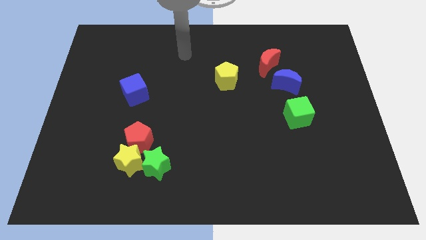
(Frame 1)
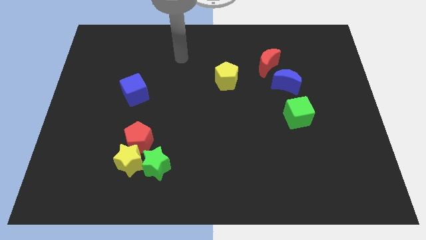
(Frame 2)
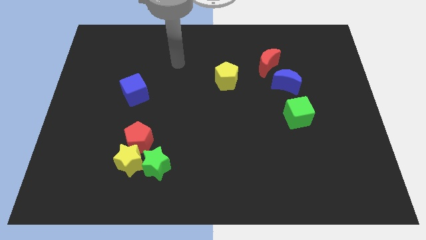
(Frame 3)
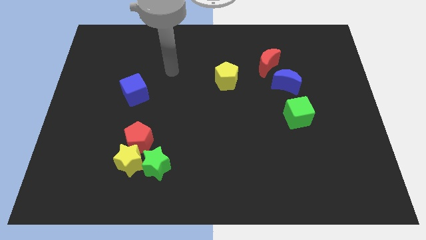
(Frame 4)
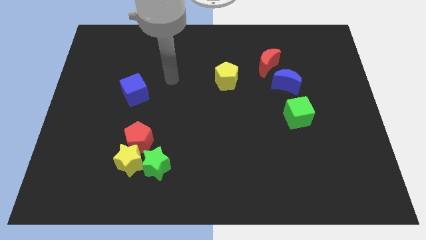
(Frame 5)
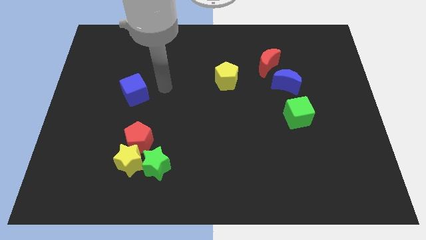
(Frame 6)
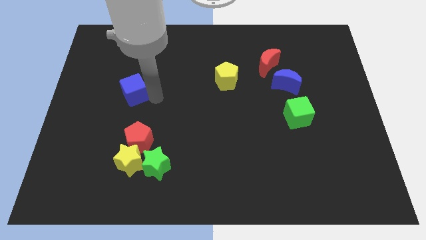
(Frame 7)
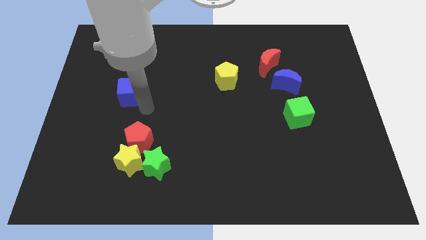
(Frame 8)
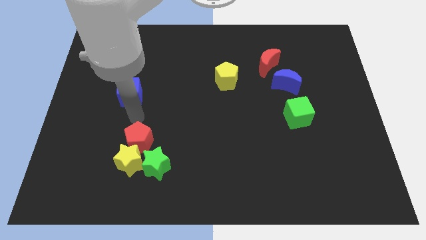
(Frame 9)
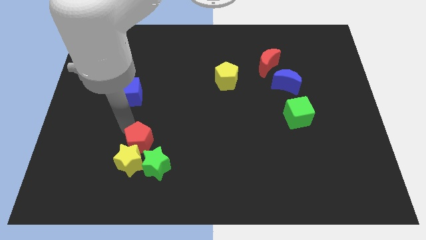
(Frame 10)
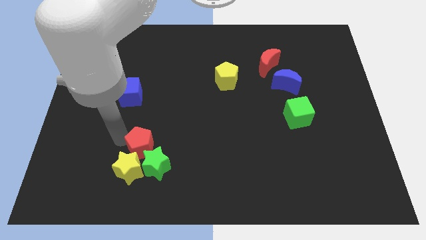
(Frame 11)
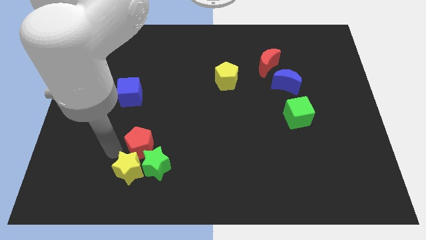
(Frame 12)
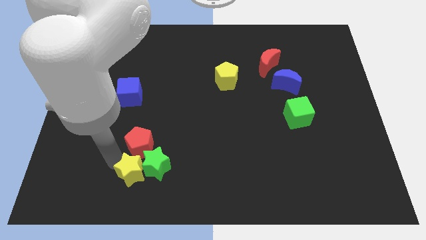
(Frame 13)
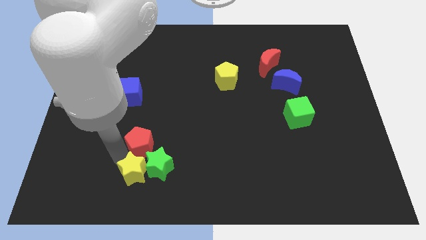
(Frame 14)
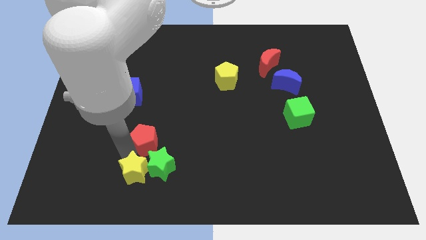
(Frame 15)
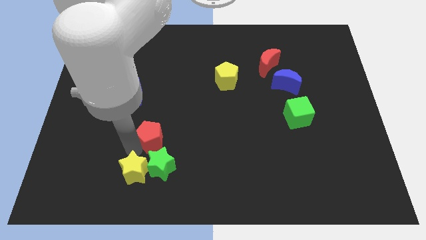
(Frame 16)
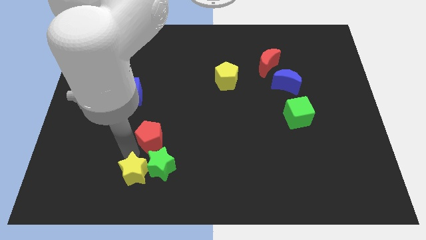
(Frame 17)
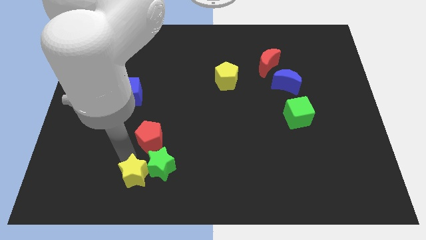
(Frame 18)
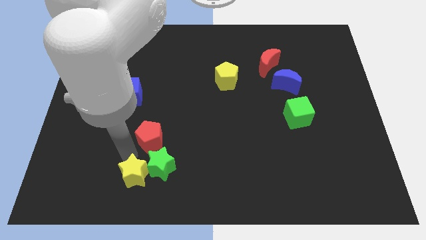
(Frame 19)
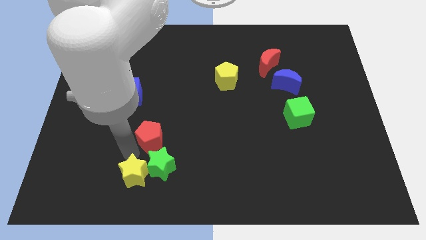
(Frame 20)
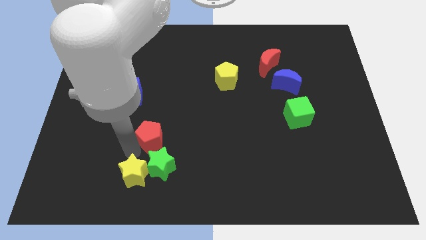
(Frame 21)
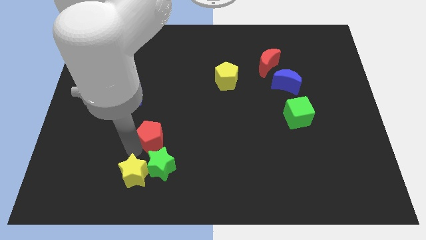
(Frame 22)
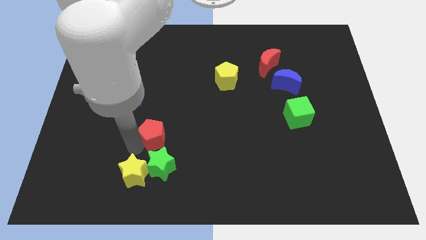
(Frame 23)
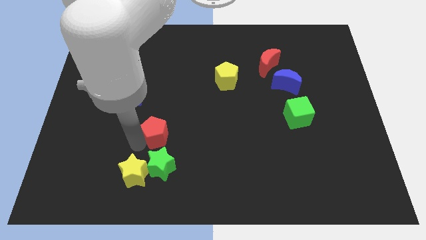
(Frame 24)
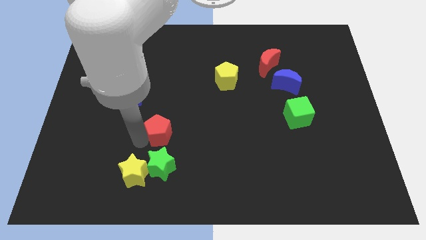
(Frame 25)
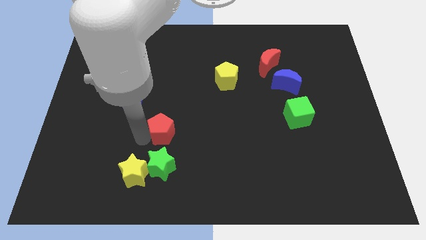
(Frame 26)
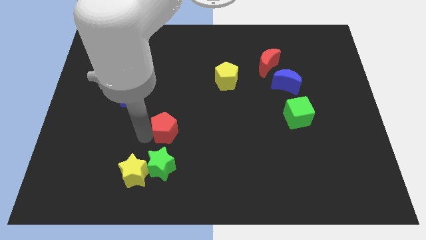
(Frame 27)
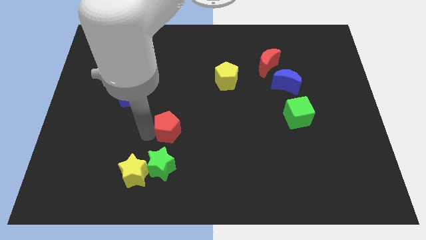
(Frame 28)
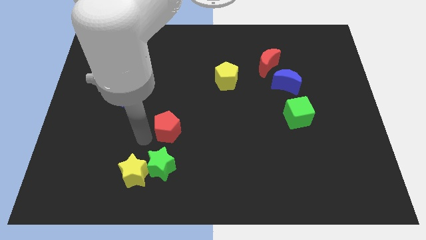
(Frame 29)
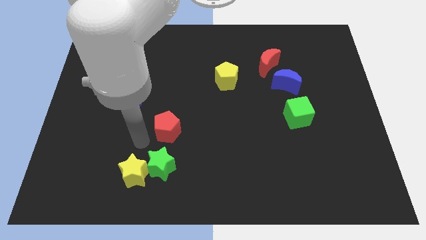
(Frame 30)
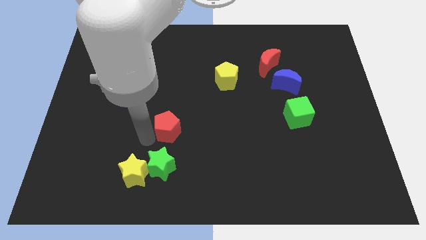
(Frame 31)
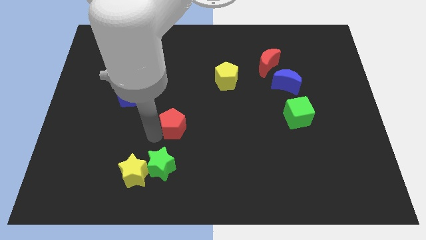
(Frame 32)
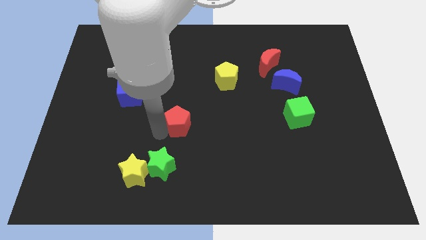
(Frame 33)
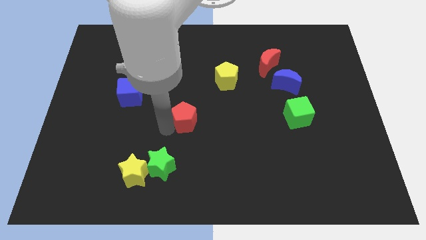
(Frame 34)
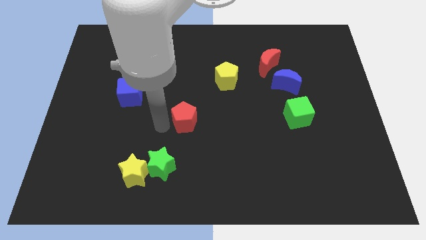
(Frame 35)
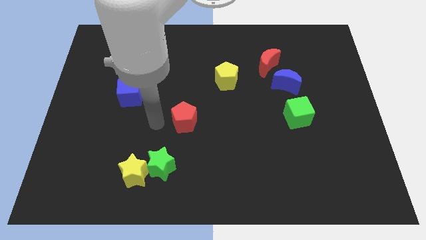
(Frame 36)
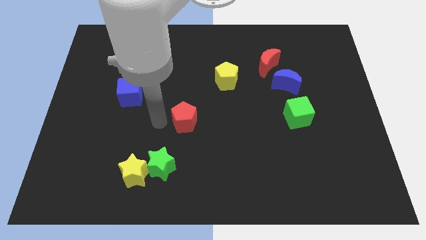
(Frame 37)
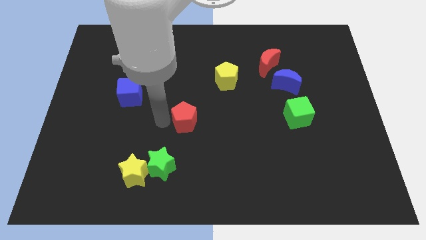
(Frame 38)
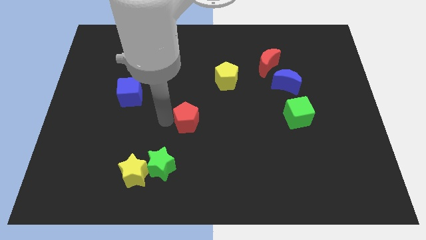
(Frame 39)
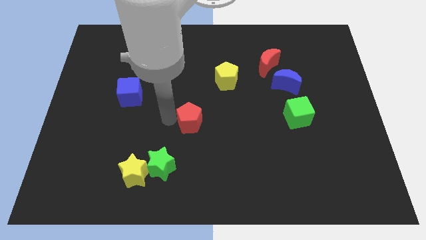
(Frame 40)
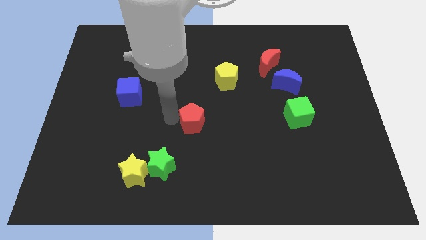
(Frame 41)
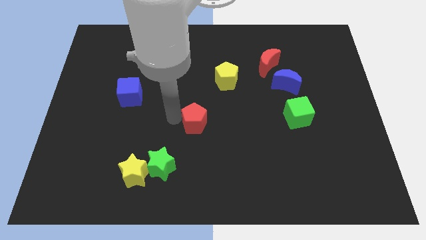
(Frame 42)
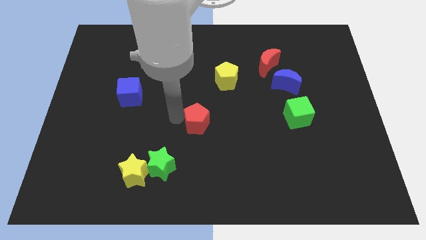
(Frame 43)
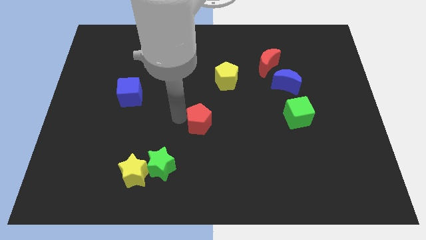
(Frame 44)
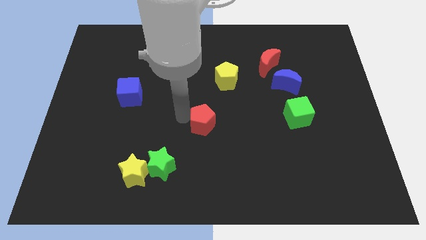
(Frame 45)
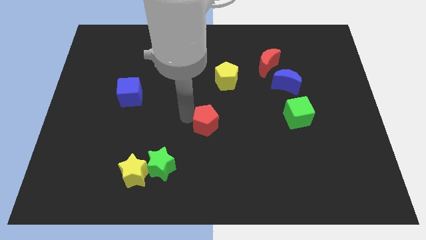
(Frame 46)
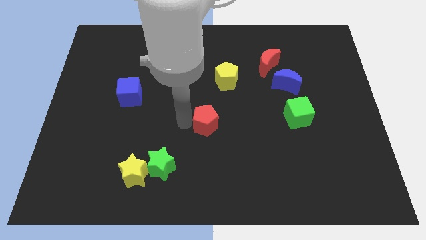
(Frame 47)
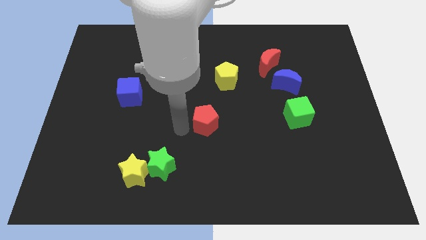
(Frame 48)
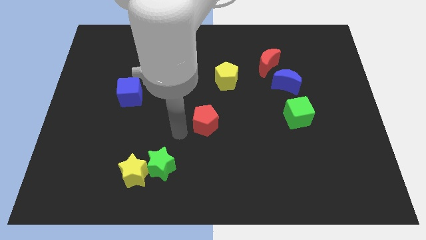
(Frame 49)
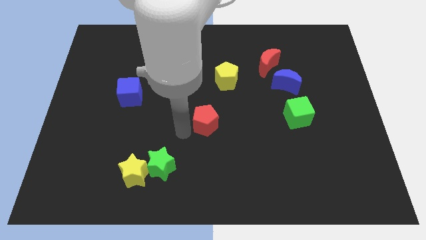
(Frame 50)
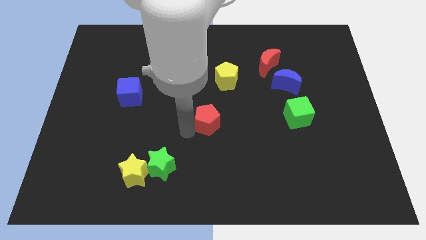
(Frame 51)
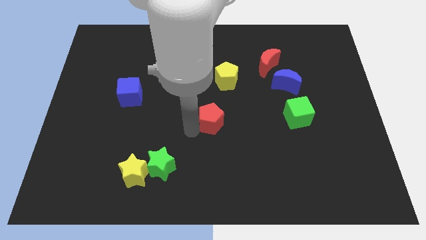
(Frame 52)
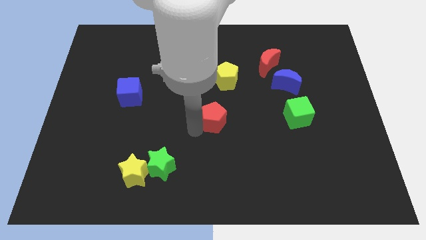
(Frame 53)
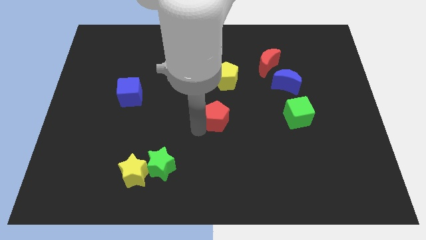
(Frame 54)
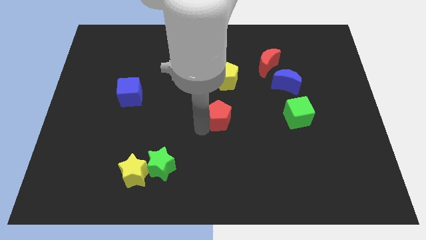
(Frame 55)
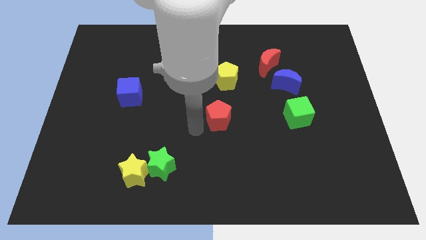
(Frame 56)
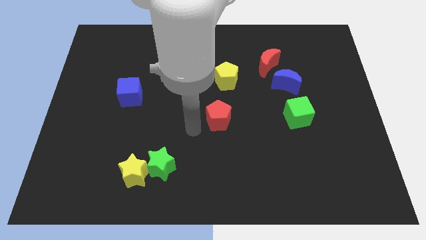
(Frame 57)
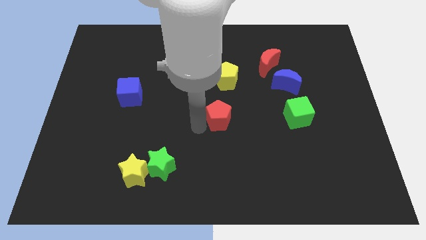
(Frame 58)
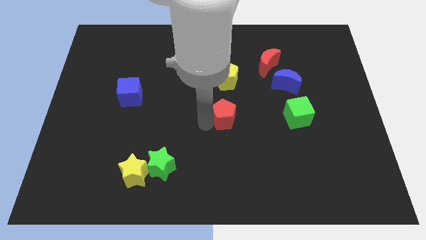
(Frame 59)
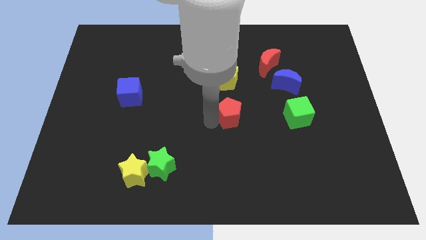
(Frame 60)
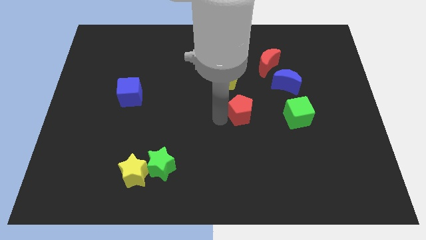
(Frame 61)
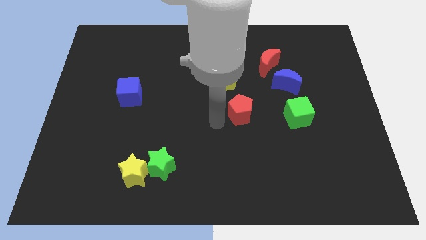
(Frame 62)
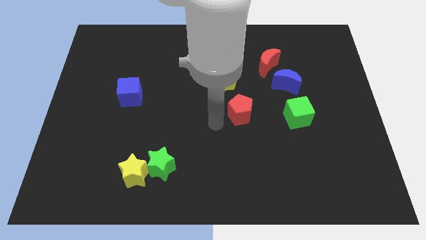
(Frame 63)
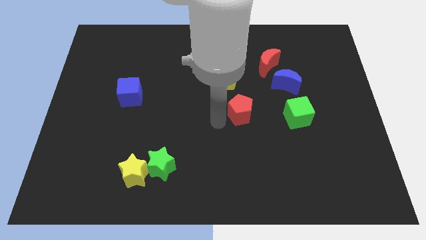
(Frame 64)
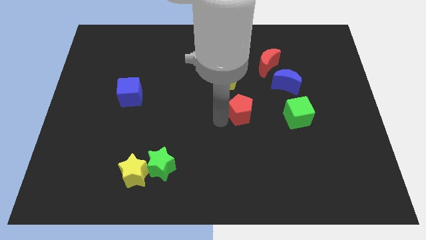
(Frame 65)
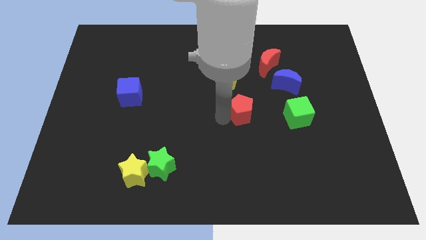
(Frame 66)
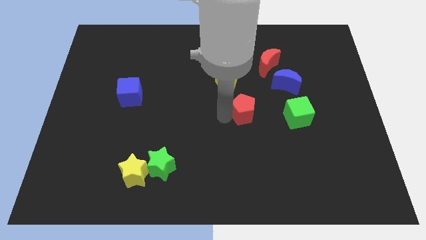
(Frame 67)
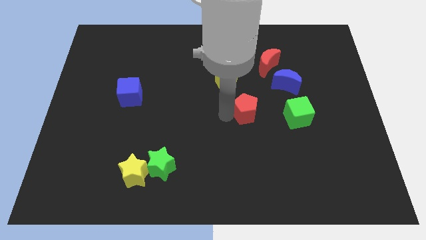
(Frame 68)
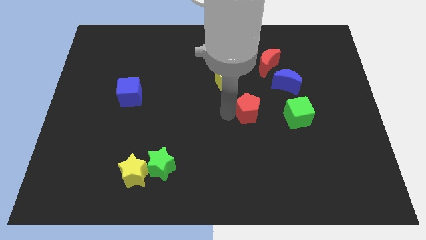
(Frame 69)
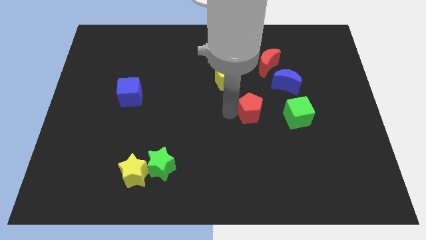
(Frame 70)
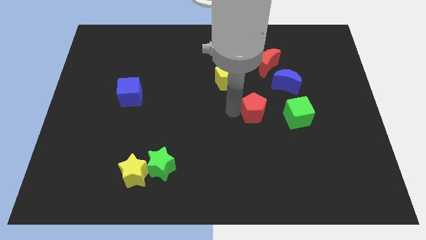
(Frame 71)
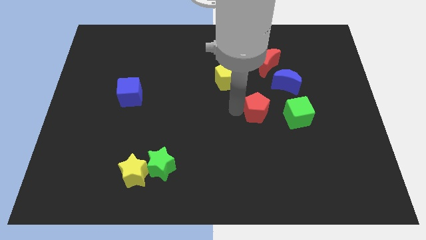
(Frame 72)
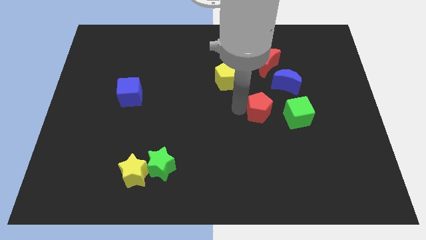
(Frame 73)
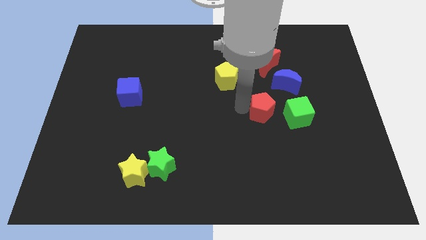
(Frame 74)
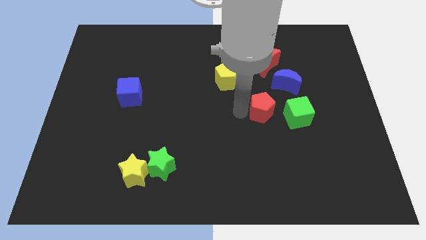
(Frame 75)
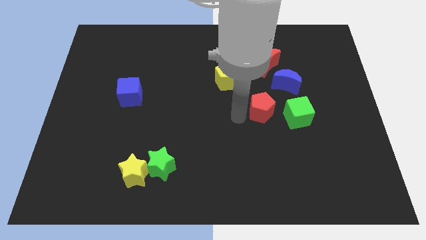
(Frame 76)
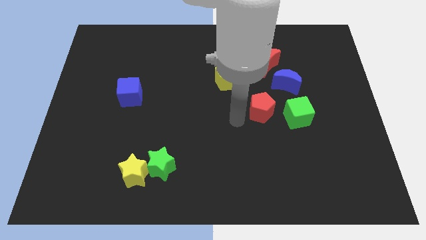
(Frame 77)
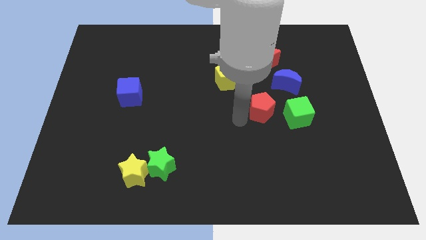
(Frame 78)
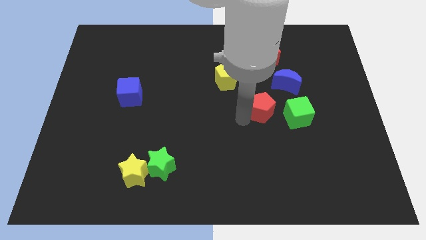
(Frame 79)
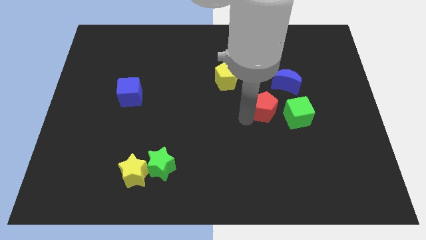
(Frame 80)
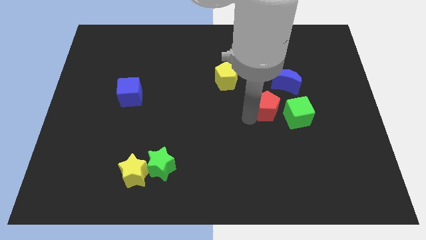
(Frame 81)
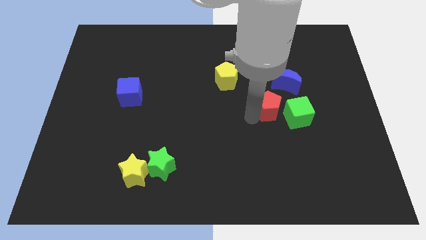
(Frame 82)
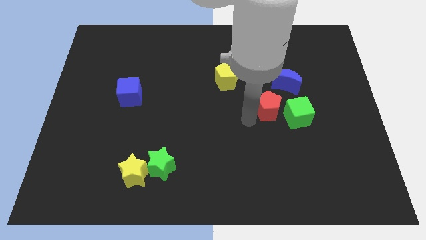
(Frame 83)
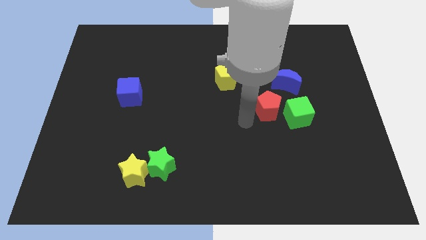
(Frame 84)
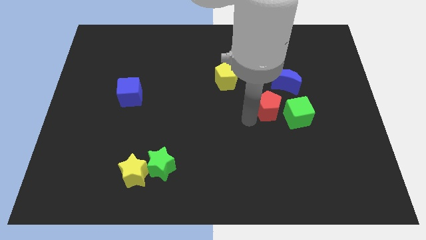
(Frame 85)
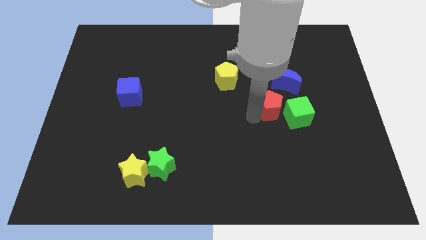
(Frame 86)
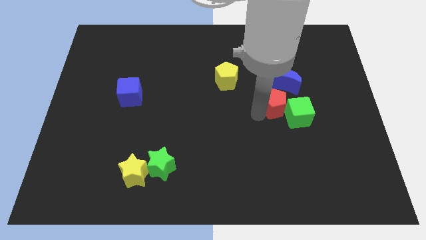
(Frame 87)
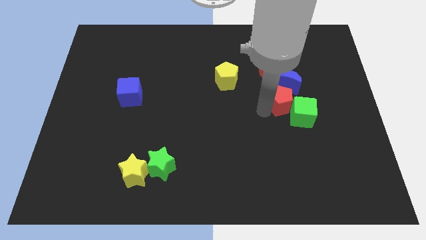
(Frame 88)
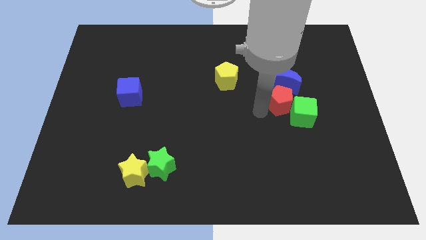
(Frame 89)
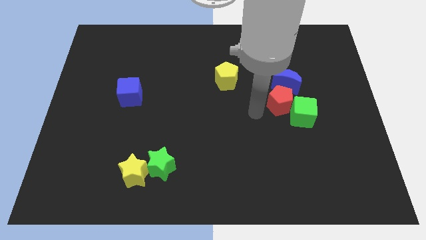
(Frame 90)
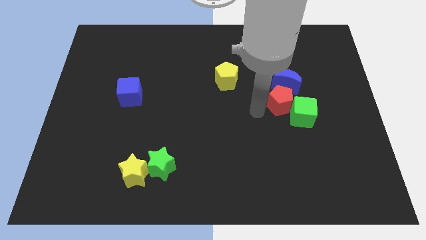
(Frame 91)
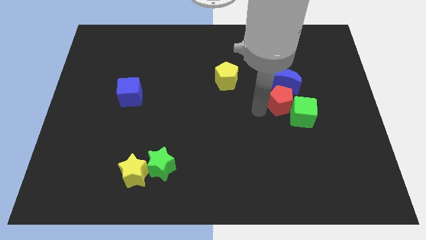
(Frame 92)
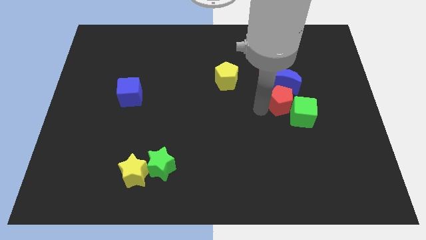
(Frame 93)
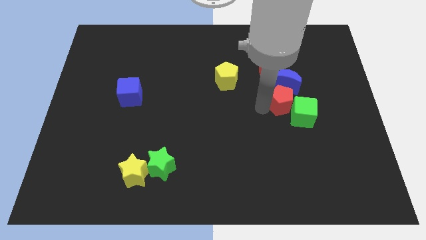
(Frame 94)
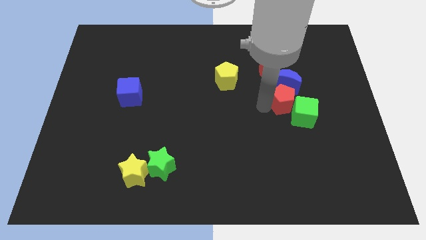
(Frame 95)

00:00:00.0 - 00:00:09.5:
slide the red pentagon above the green cube
